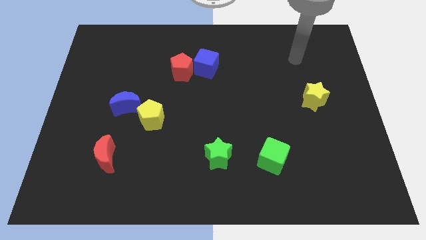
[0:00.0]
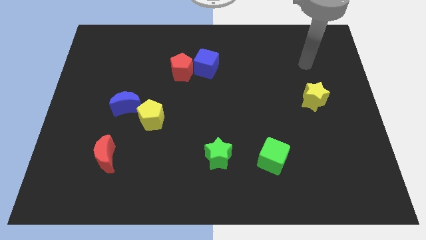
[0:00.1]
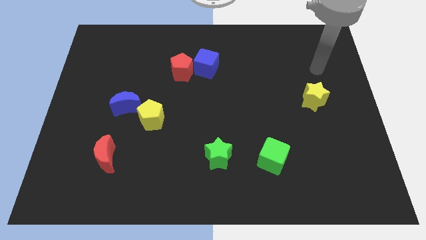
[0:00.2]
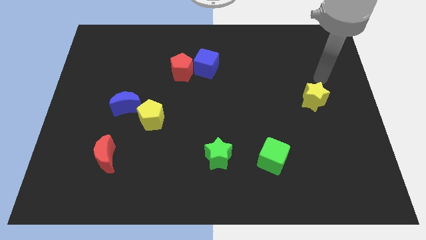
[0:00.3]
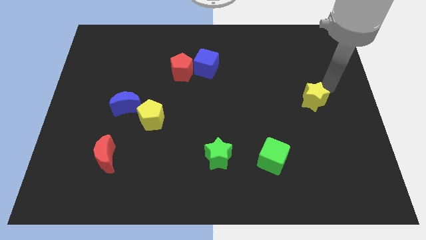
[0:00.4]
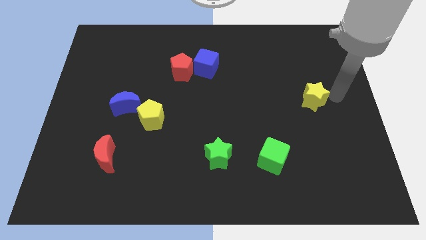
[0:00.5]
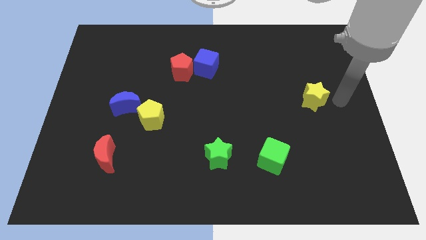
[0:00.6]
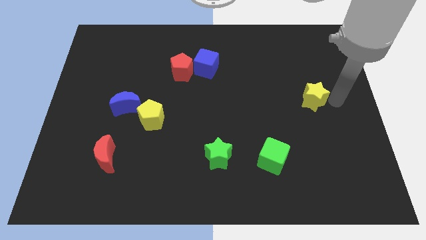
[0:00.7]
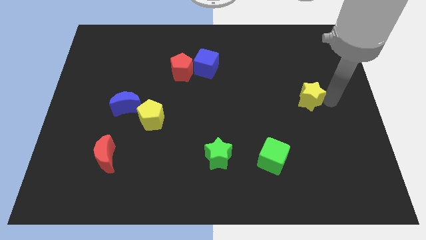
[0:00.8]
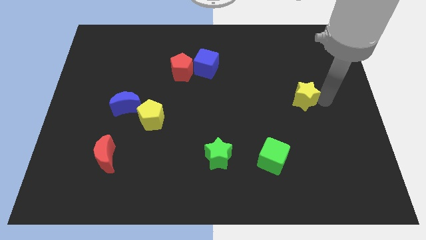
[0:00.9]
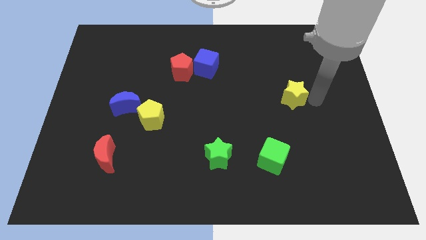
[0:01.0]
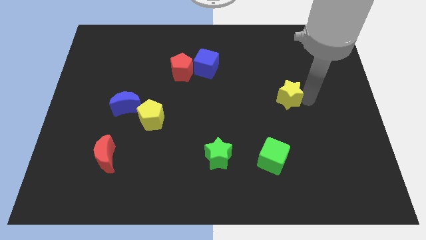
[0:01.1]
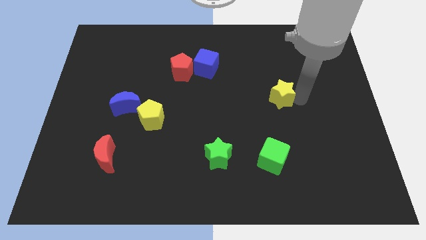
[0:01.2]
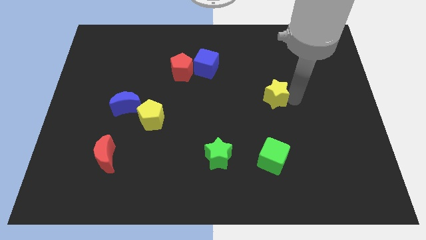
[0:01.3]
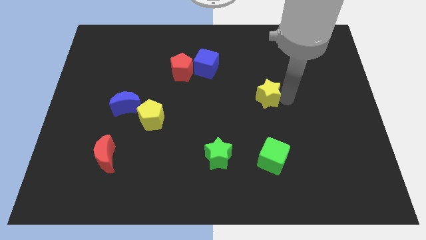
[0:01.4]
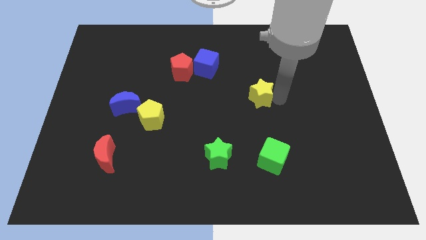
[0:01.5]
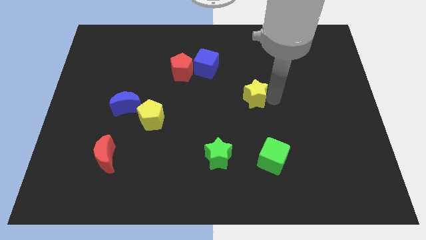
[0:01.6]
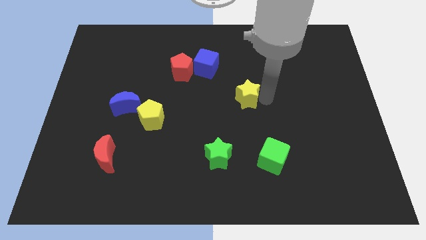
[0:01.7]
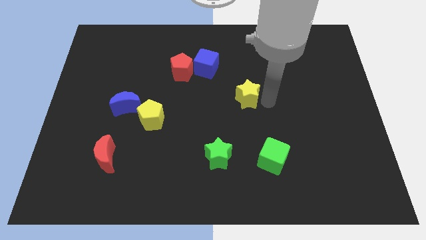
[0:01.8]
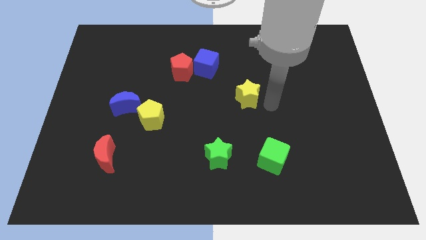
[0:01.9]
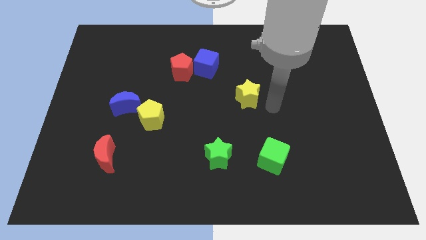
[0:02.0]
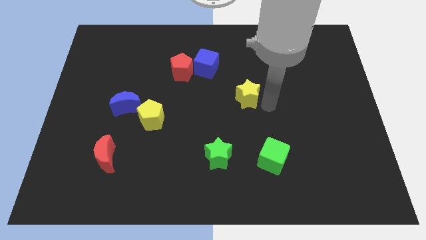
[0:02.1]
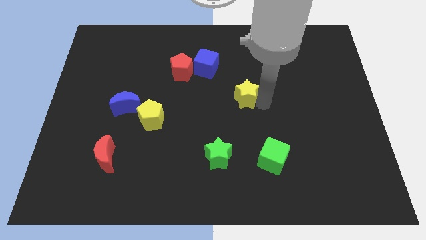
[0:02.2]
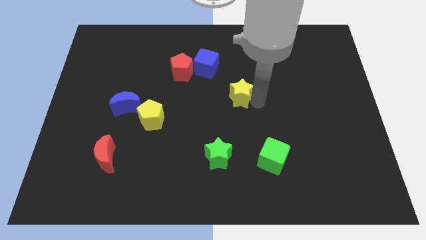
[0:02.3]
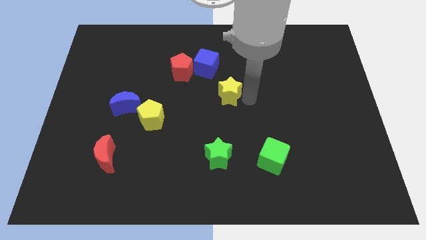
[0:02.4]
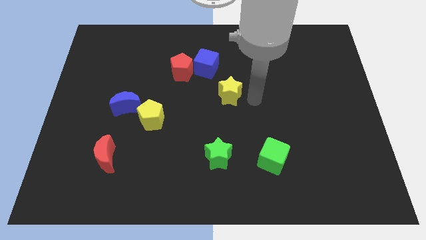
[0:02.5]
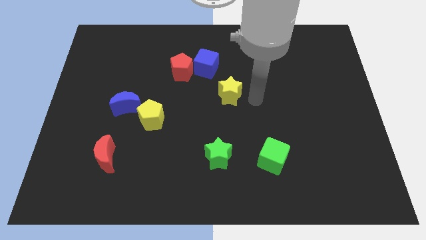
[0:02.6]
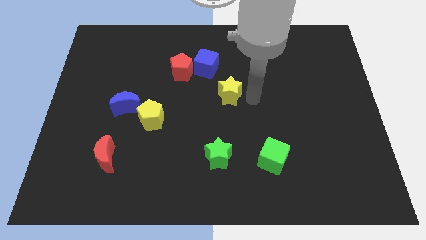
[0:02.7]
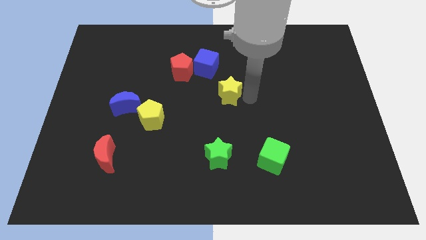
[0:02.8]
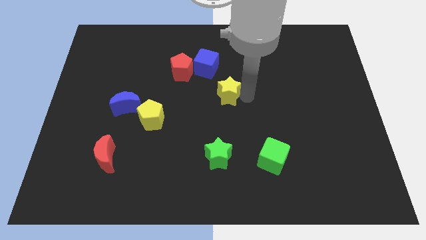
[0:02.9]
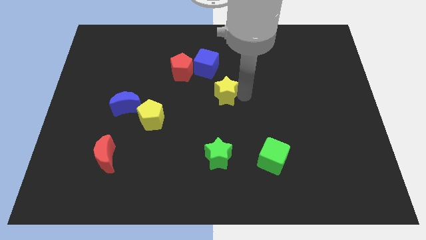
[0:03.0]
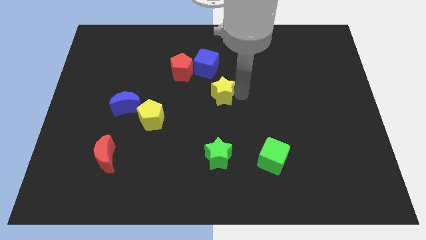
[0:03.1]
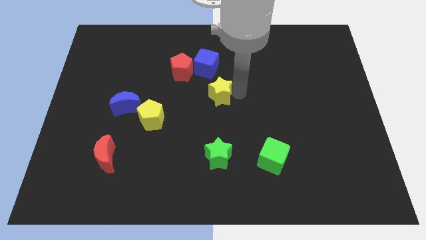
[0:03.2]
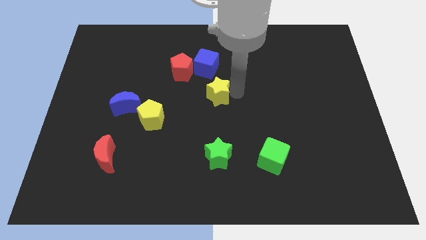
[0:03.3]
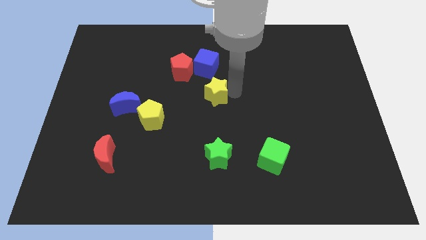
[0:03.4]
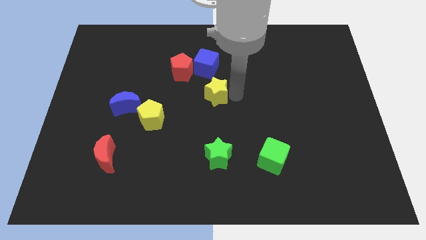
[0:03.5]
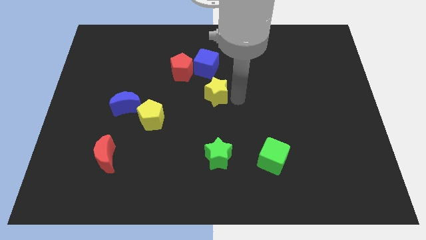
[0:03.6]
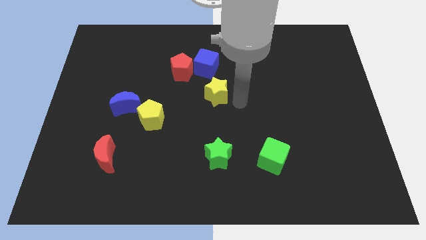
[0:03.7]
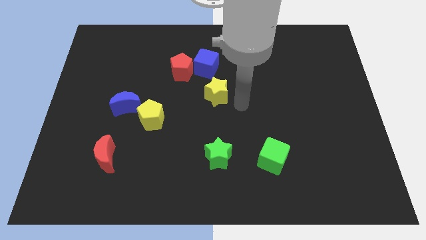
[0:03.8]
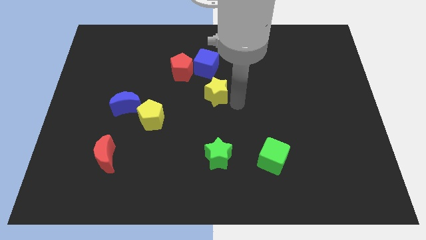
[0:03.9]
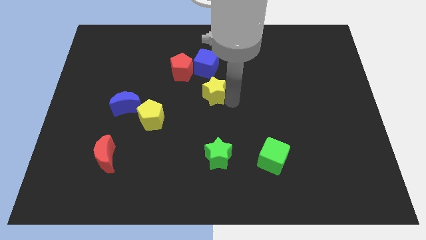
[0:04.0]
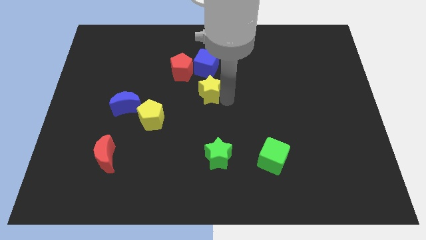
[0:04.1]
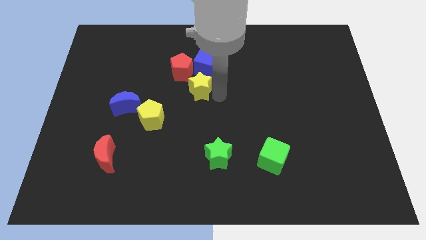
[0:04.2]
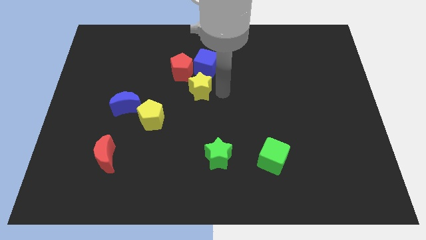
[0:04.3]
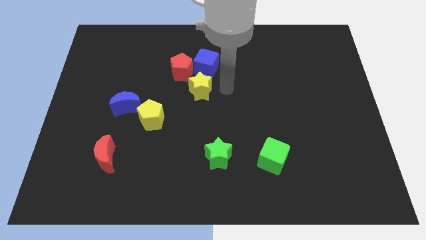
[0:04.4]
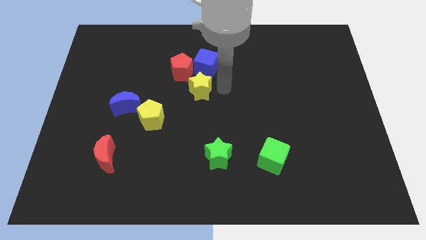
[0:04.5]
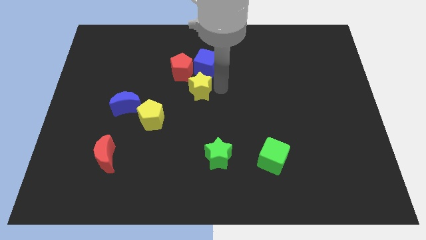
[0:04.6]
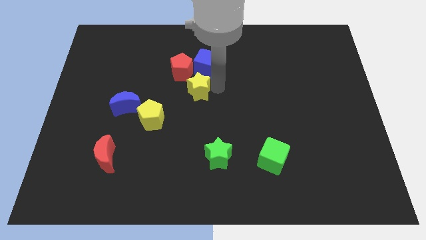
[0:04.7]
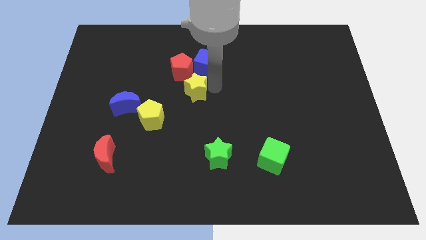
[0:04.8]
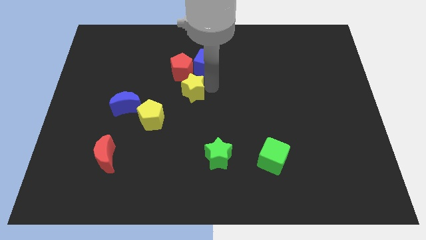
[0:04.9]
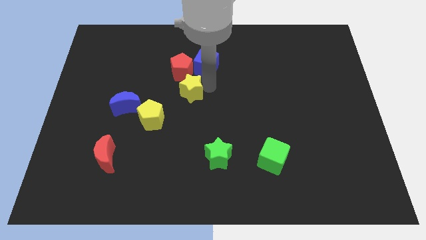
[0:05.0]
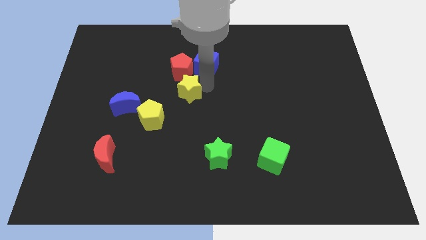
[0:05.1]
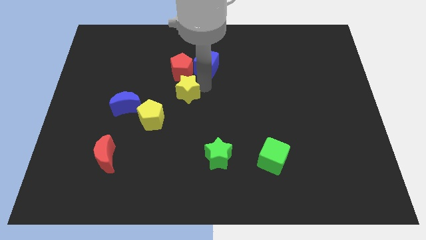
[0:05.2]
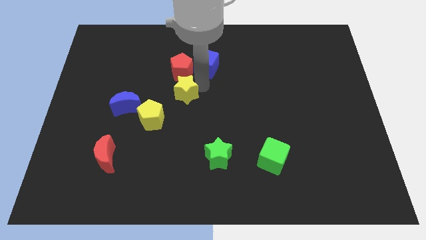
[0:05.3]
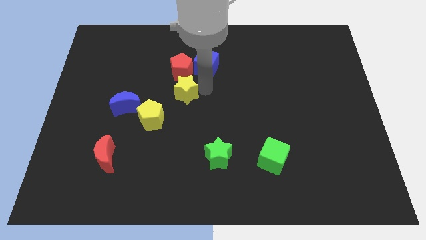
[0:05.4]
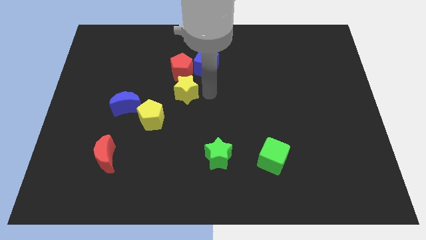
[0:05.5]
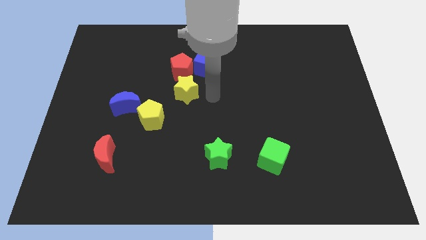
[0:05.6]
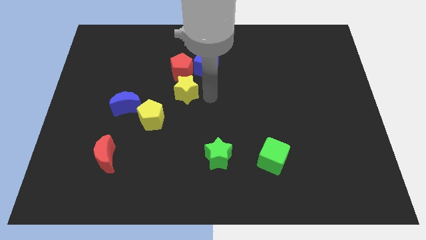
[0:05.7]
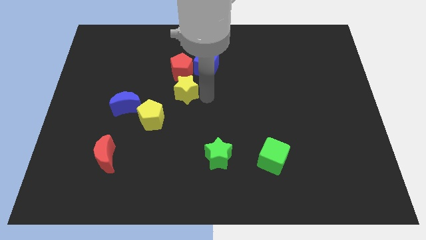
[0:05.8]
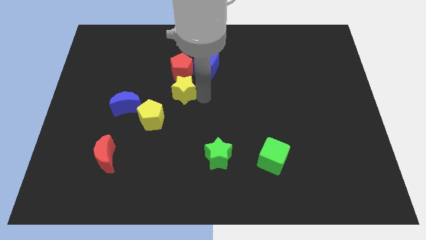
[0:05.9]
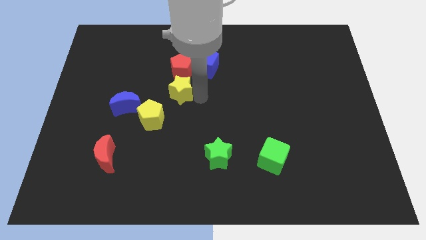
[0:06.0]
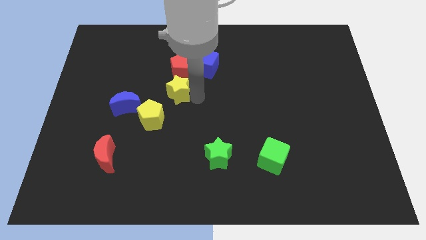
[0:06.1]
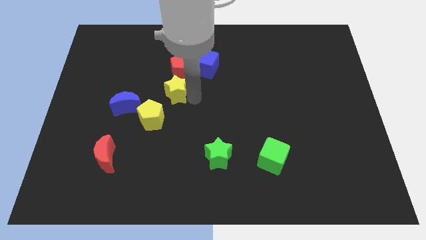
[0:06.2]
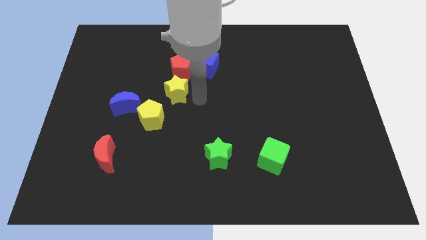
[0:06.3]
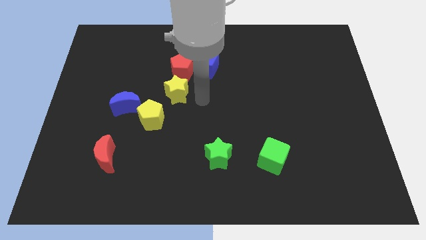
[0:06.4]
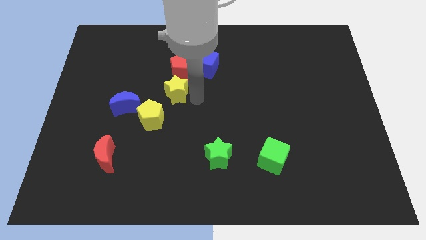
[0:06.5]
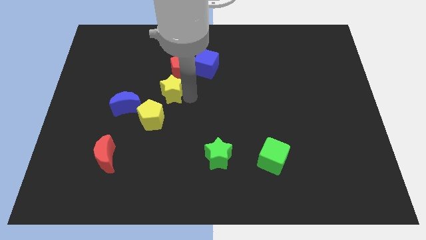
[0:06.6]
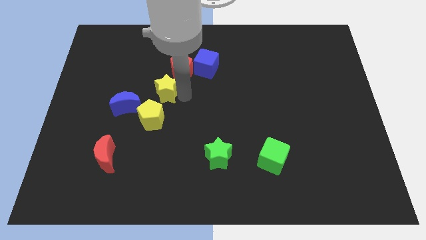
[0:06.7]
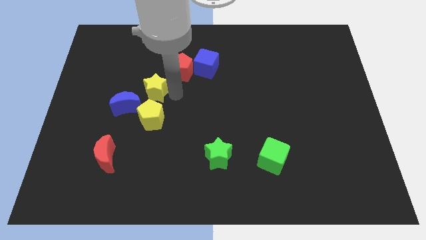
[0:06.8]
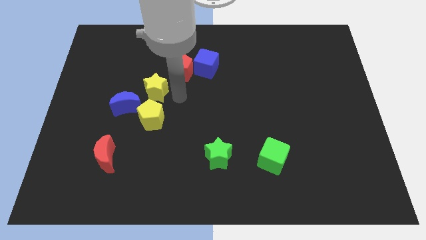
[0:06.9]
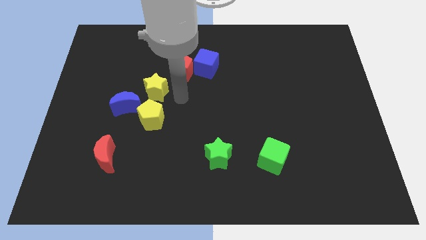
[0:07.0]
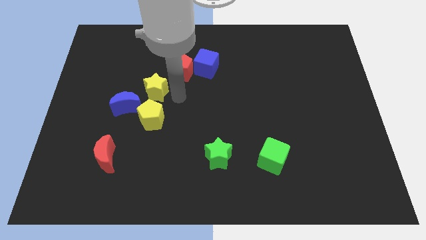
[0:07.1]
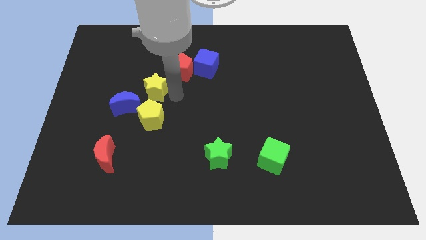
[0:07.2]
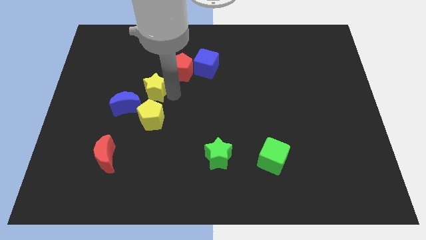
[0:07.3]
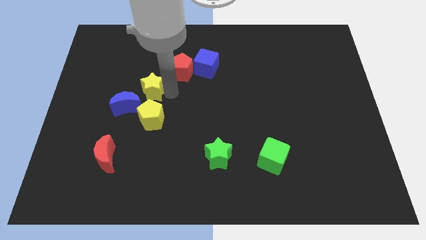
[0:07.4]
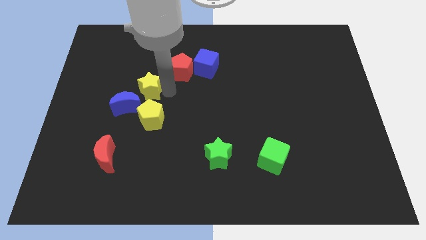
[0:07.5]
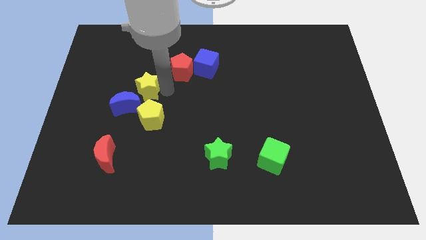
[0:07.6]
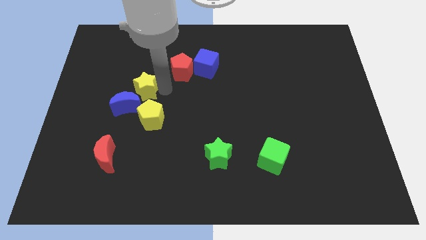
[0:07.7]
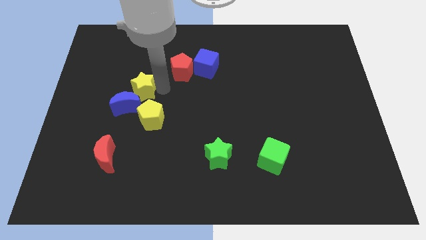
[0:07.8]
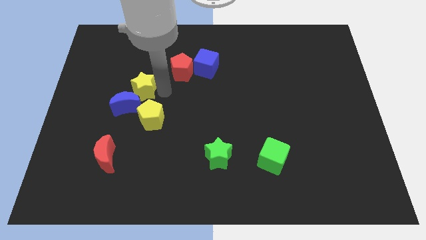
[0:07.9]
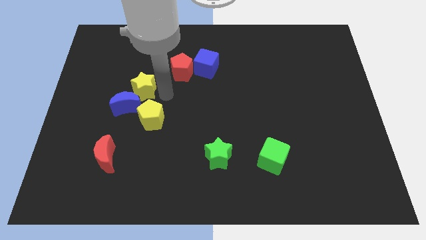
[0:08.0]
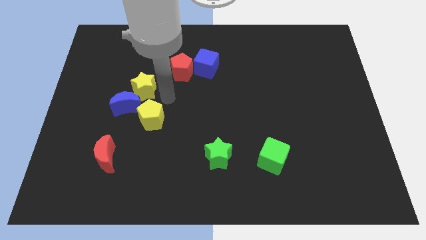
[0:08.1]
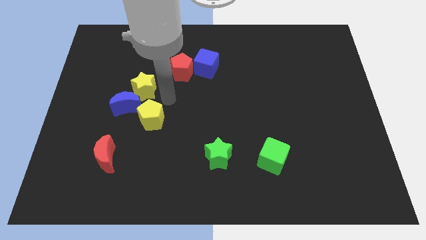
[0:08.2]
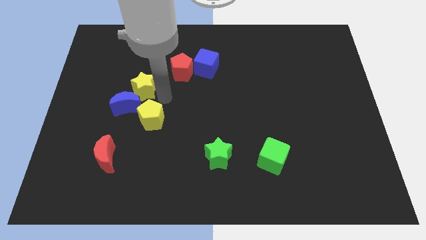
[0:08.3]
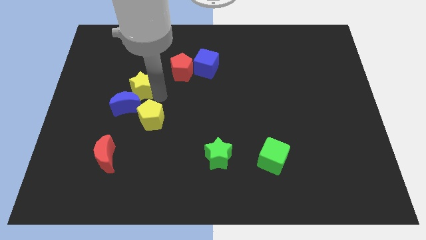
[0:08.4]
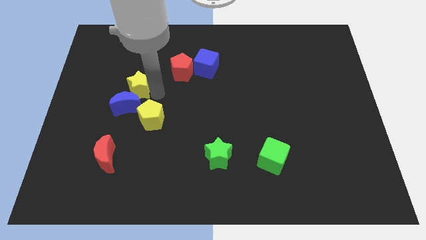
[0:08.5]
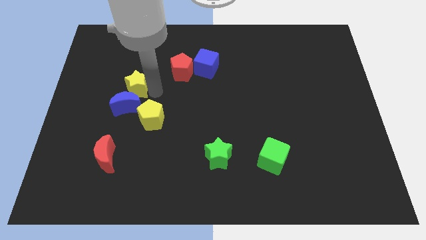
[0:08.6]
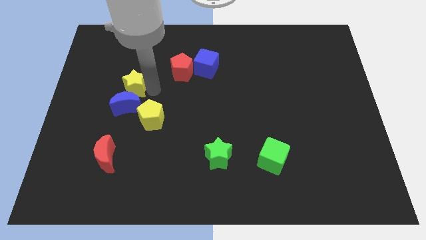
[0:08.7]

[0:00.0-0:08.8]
slide the yellow star to the top left side of the blue moon
